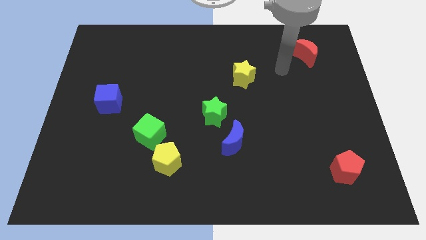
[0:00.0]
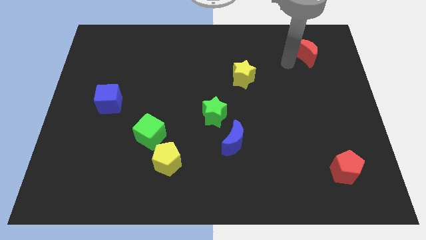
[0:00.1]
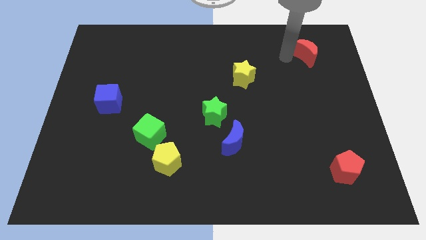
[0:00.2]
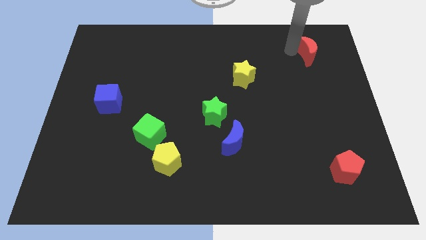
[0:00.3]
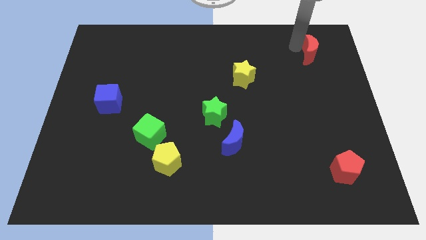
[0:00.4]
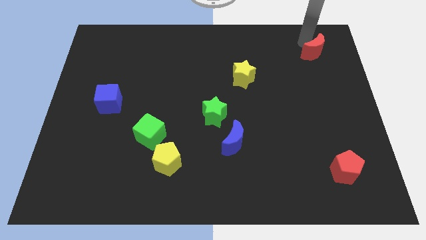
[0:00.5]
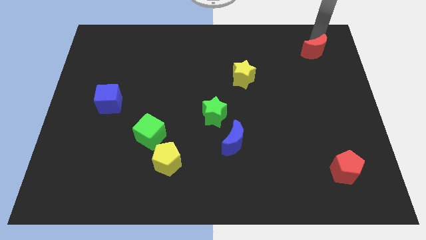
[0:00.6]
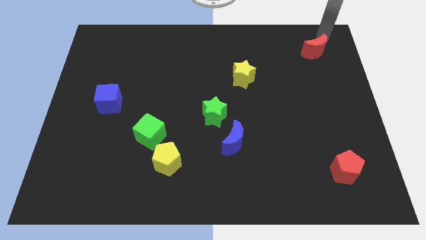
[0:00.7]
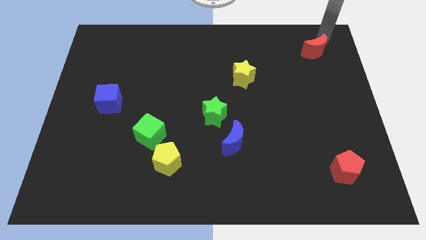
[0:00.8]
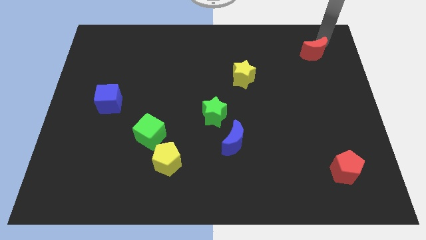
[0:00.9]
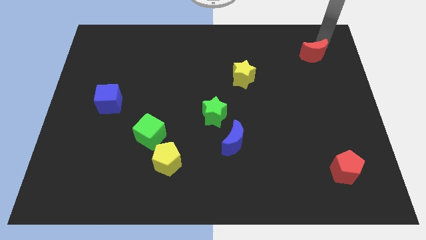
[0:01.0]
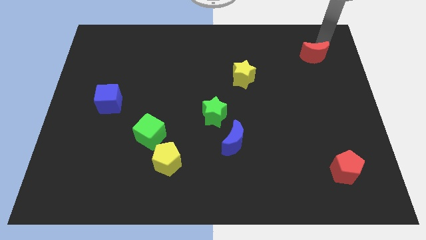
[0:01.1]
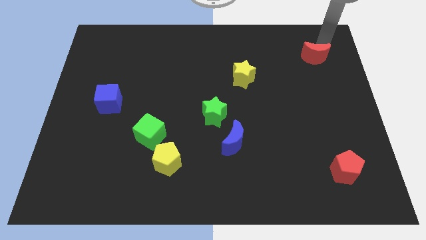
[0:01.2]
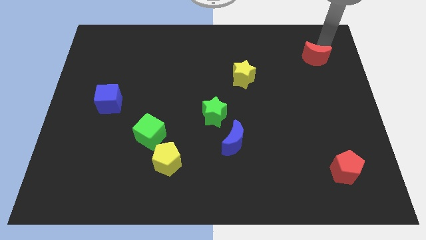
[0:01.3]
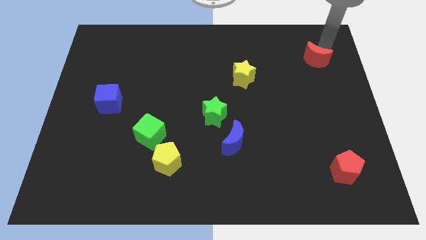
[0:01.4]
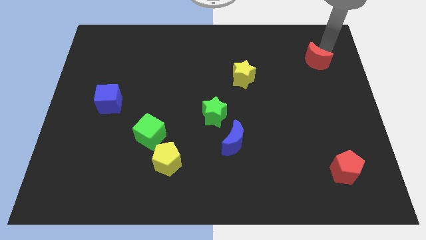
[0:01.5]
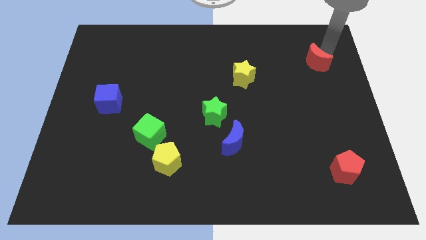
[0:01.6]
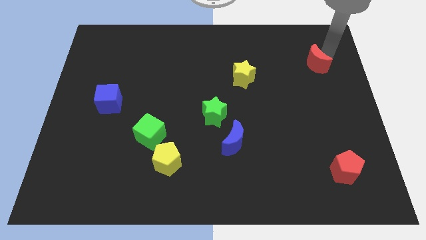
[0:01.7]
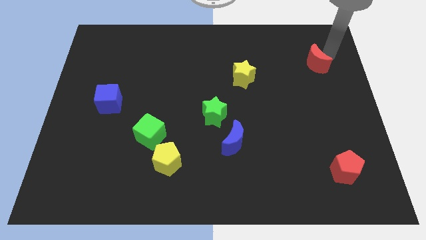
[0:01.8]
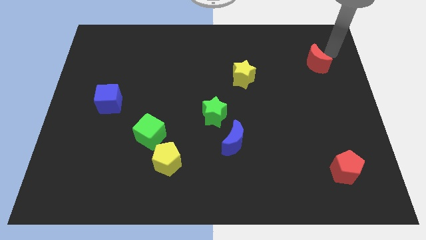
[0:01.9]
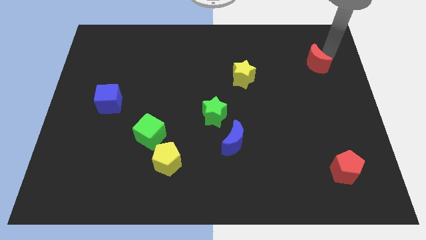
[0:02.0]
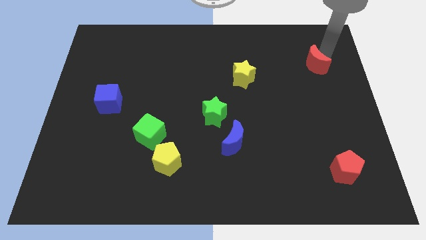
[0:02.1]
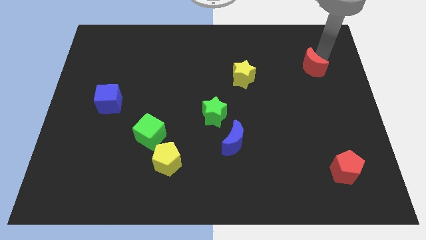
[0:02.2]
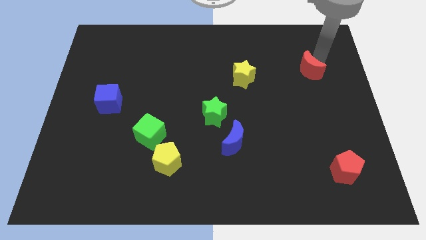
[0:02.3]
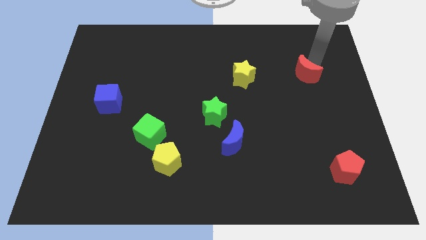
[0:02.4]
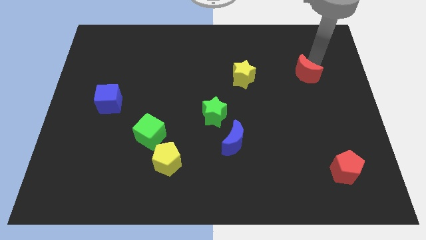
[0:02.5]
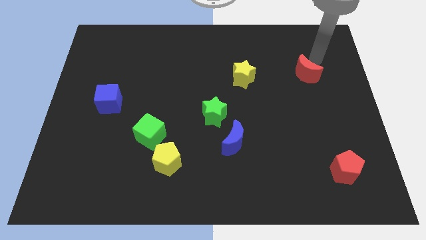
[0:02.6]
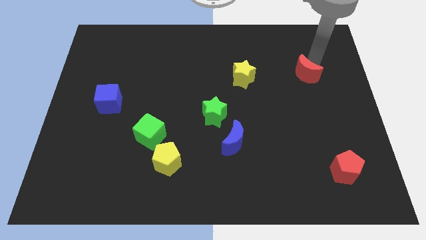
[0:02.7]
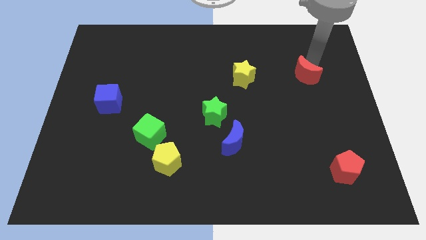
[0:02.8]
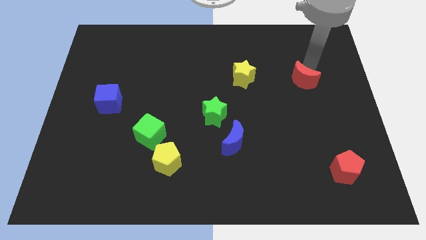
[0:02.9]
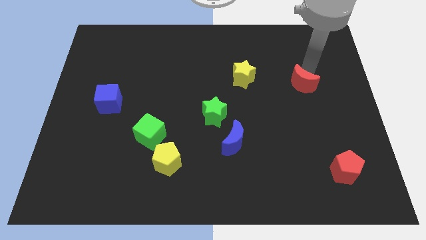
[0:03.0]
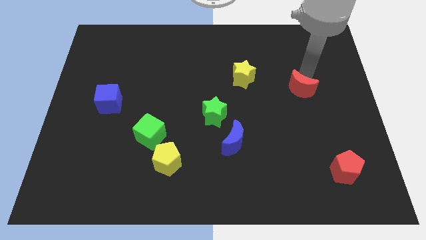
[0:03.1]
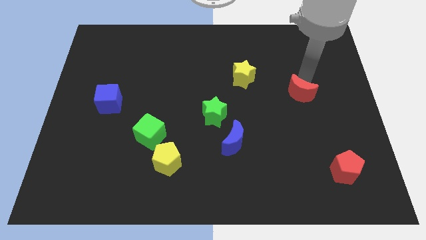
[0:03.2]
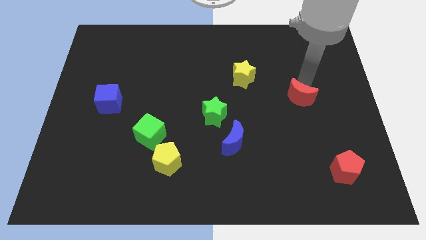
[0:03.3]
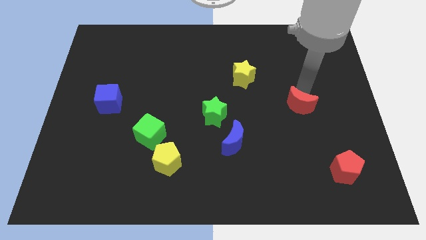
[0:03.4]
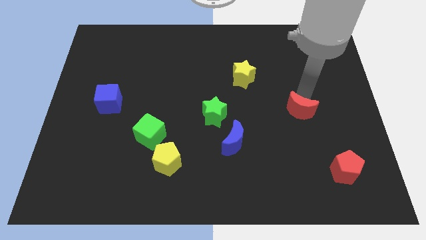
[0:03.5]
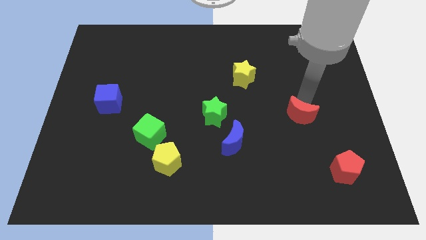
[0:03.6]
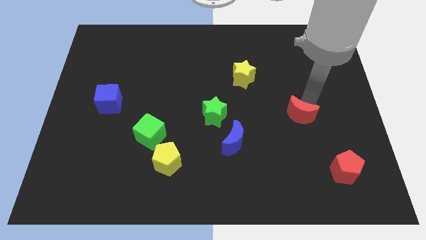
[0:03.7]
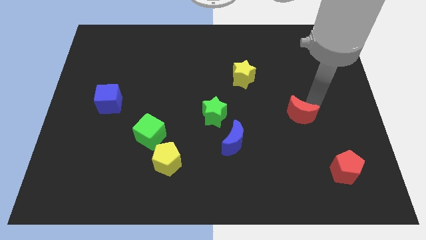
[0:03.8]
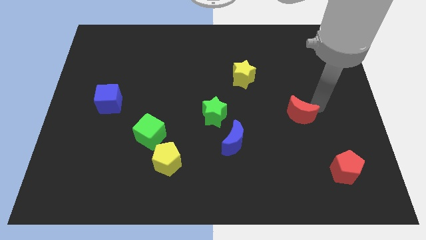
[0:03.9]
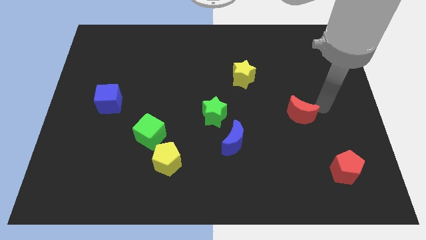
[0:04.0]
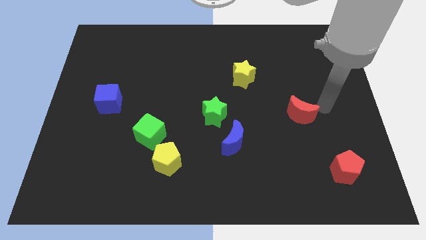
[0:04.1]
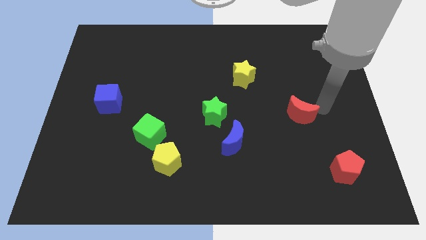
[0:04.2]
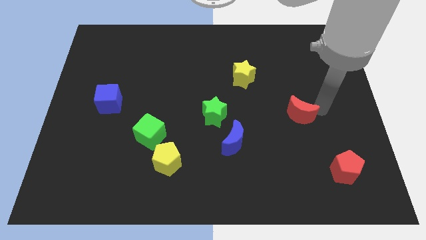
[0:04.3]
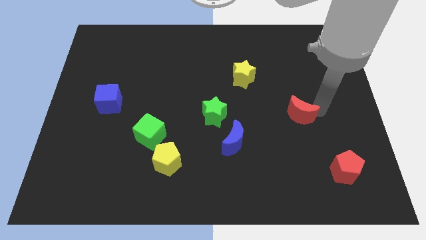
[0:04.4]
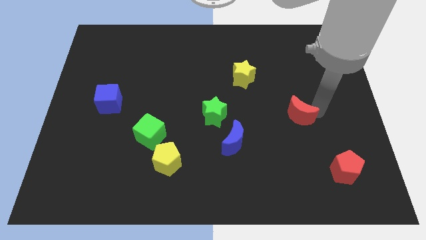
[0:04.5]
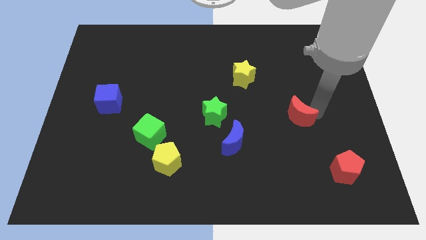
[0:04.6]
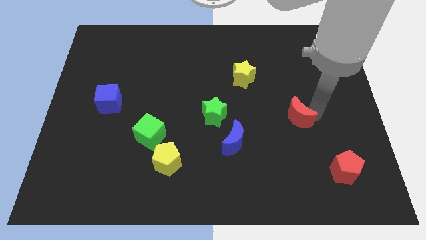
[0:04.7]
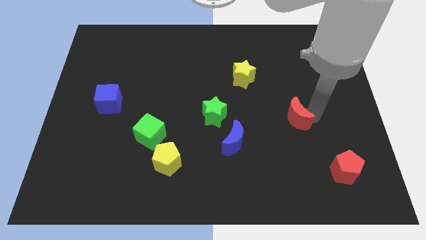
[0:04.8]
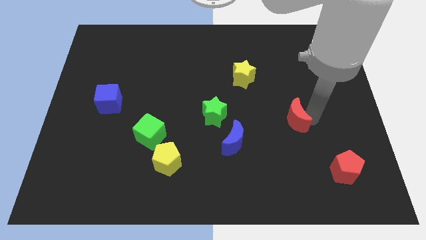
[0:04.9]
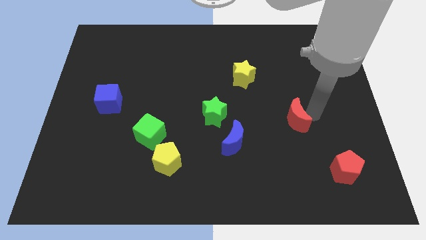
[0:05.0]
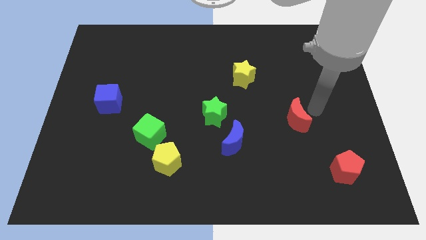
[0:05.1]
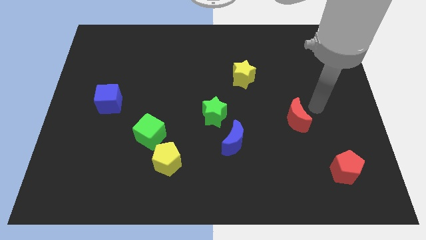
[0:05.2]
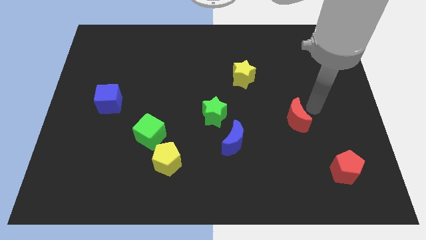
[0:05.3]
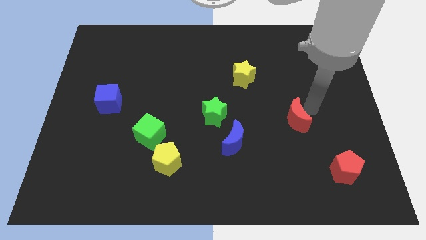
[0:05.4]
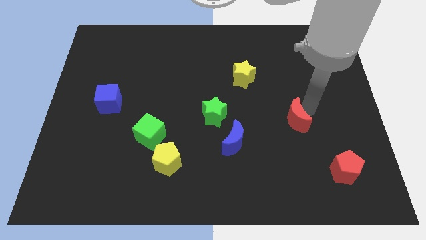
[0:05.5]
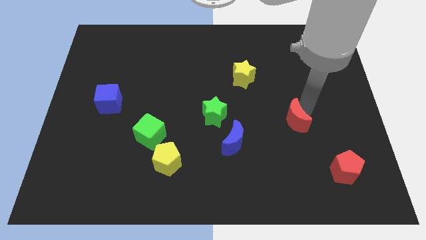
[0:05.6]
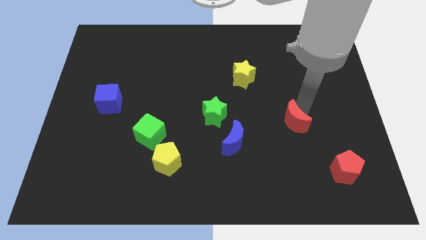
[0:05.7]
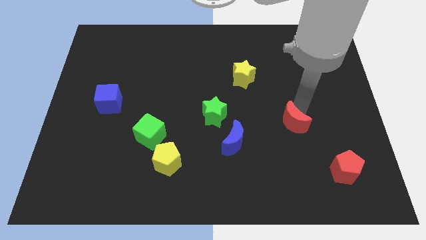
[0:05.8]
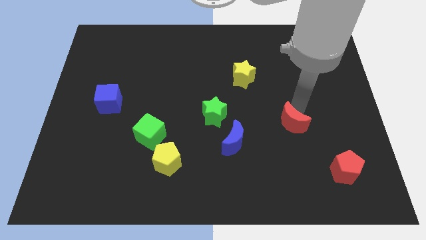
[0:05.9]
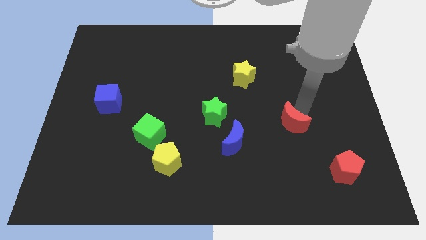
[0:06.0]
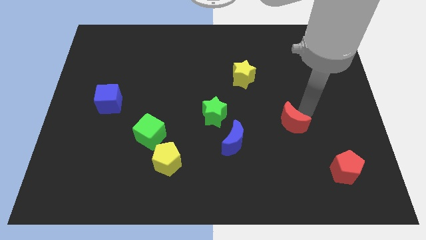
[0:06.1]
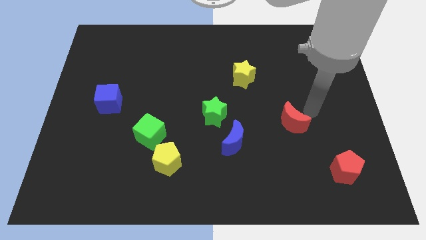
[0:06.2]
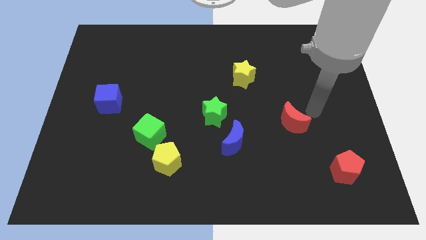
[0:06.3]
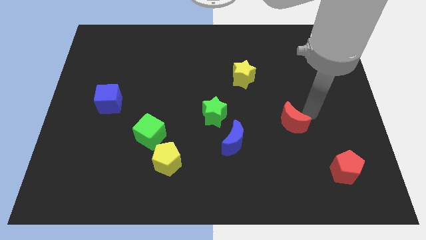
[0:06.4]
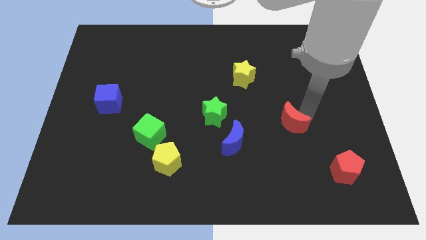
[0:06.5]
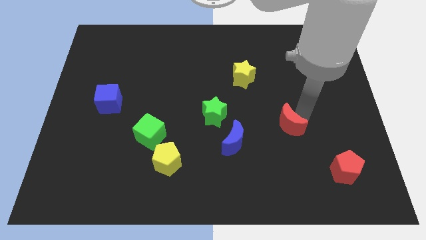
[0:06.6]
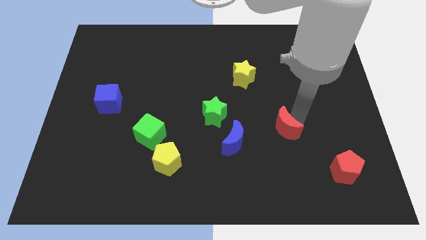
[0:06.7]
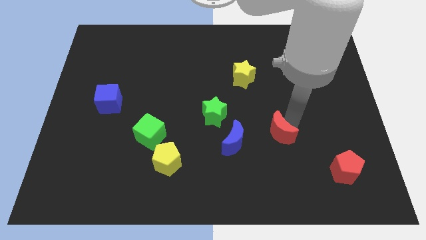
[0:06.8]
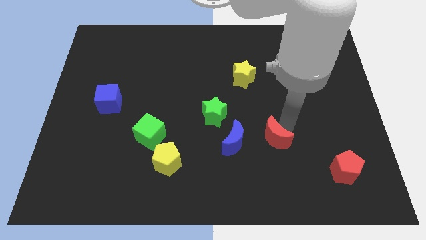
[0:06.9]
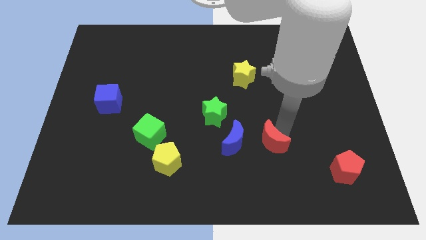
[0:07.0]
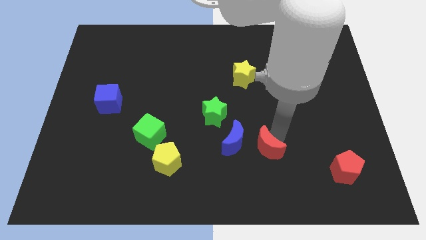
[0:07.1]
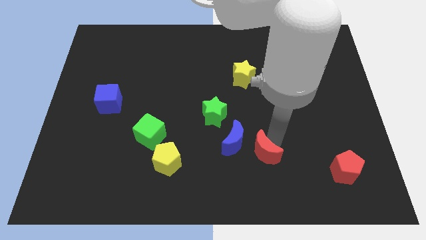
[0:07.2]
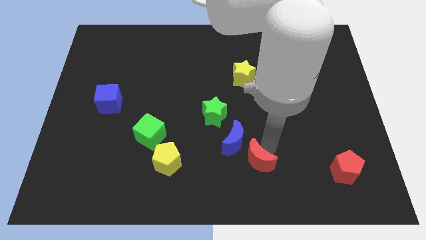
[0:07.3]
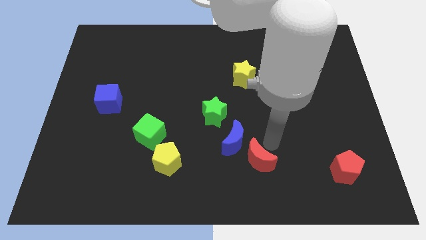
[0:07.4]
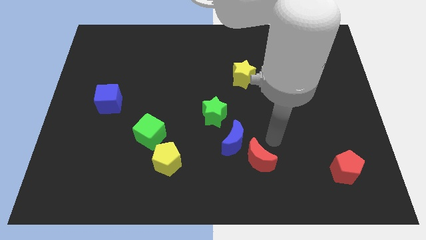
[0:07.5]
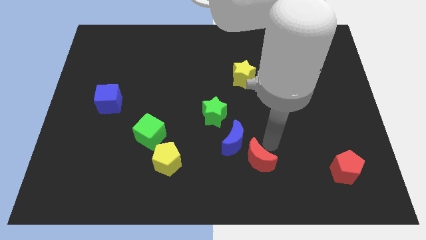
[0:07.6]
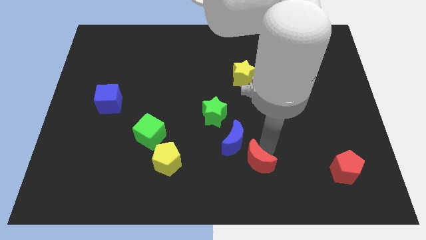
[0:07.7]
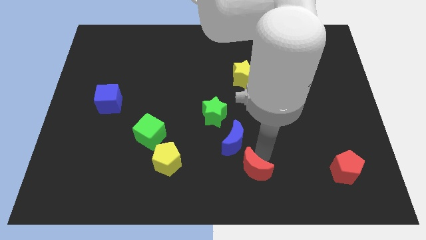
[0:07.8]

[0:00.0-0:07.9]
put the red moon to the bottom
